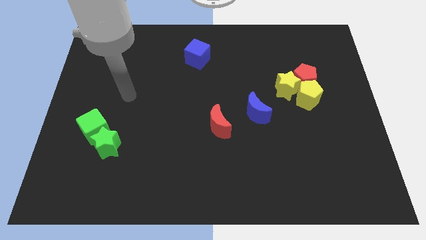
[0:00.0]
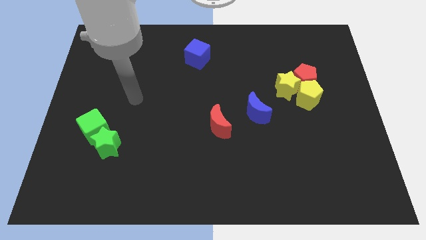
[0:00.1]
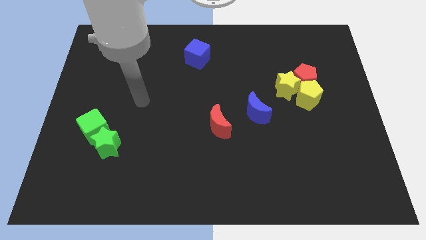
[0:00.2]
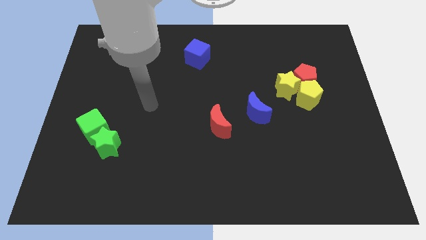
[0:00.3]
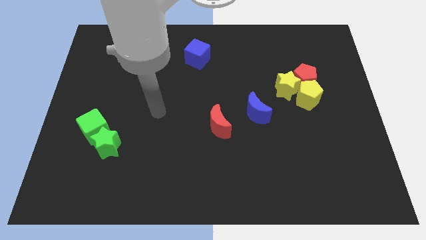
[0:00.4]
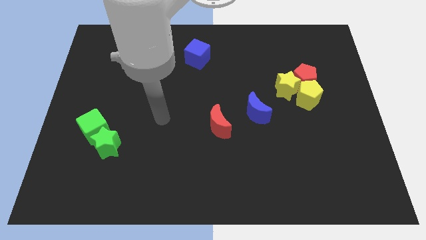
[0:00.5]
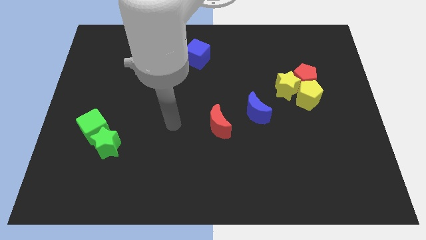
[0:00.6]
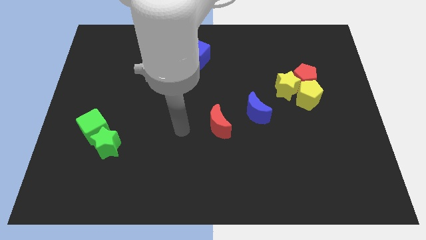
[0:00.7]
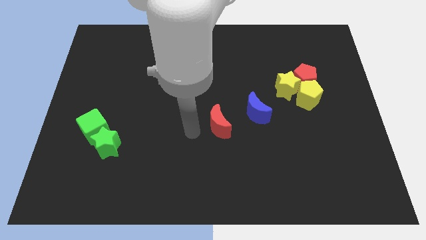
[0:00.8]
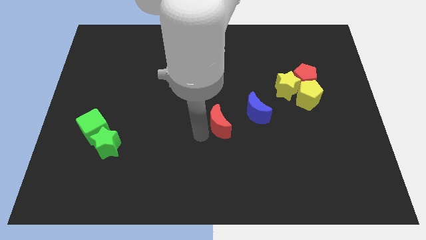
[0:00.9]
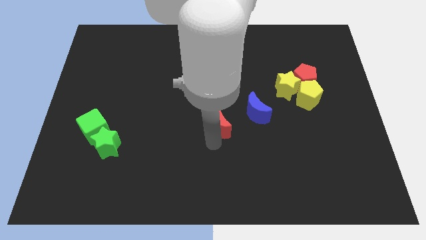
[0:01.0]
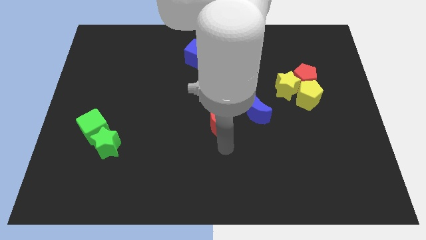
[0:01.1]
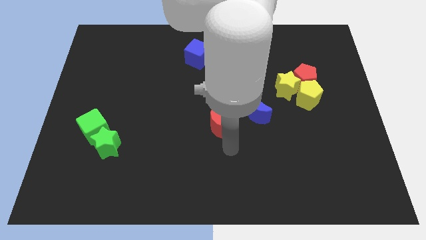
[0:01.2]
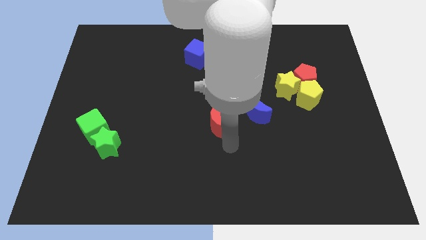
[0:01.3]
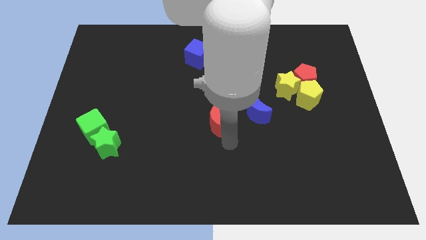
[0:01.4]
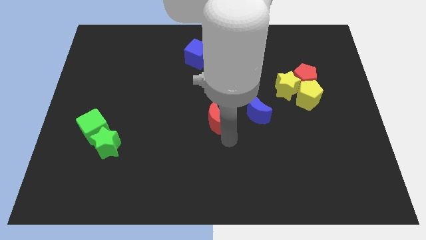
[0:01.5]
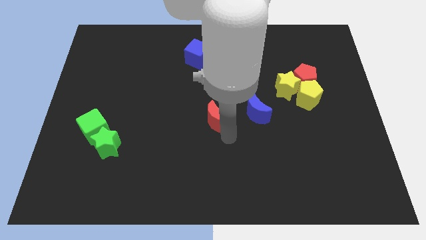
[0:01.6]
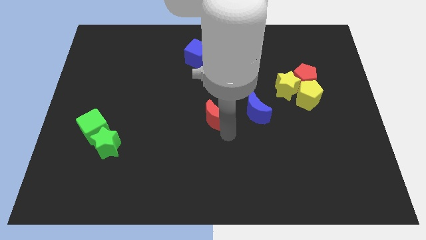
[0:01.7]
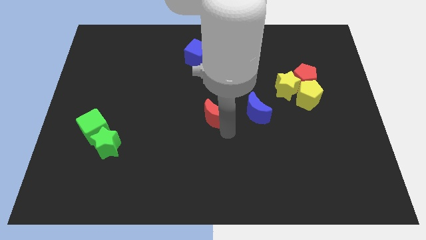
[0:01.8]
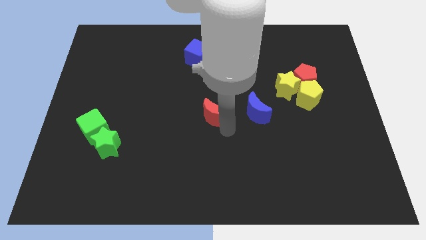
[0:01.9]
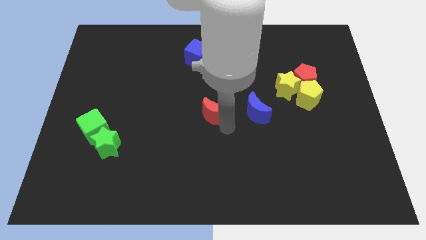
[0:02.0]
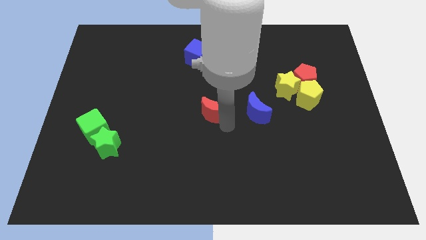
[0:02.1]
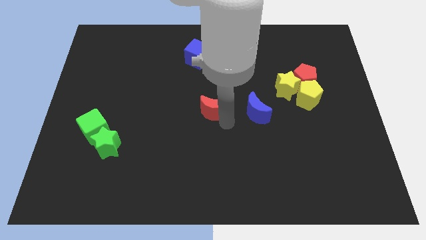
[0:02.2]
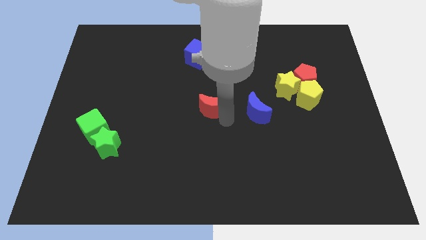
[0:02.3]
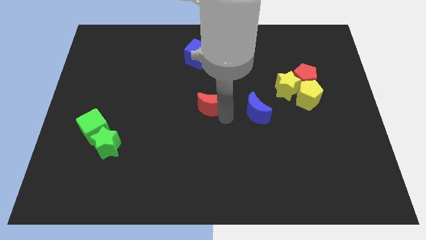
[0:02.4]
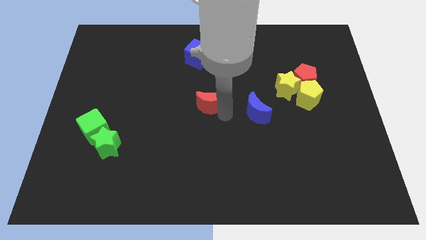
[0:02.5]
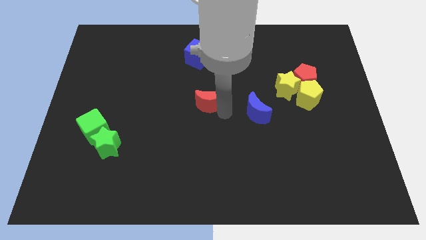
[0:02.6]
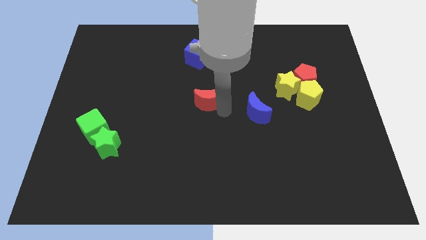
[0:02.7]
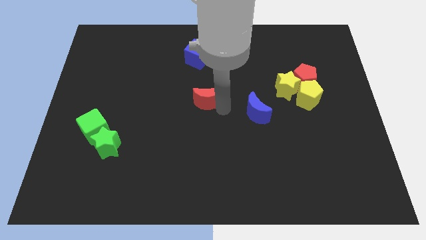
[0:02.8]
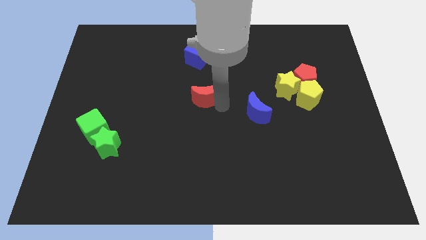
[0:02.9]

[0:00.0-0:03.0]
slightly slide the red moon upwards and then to the left

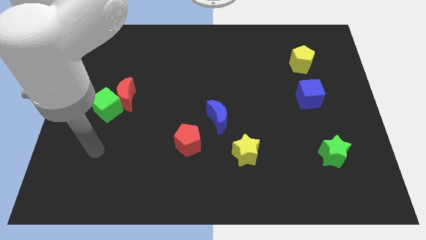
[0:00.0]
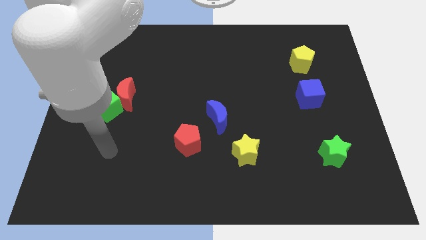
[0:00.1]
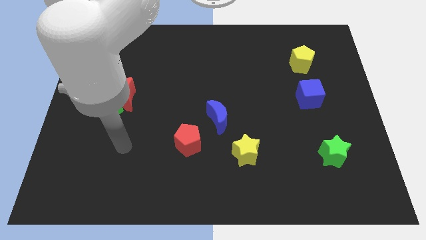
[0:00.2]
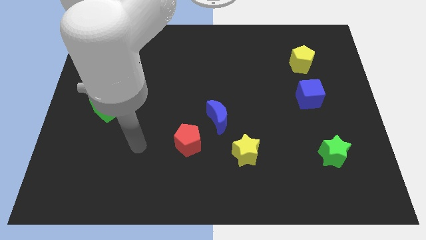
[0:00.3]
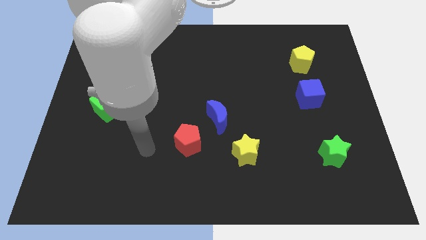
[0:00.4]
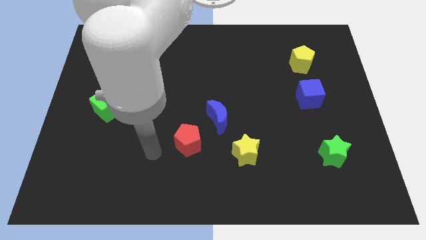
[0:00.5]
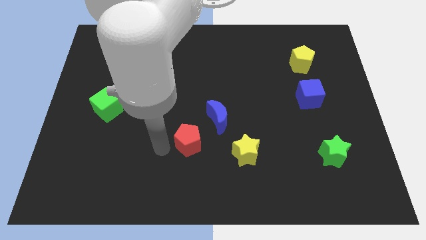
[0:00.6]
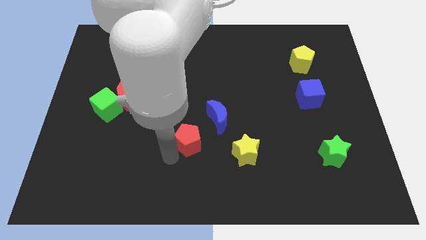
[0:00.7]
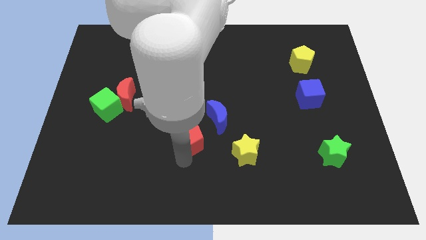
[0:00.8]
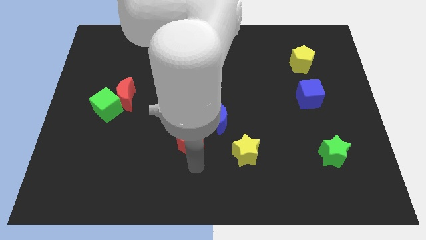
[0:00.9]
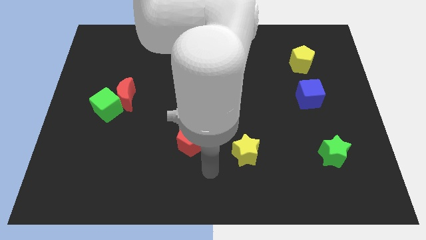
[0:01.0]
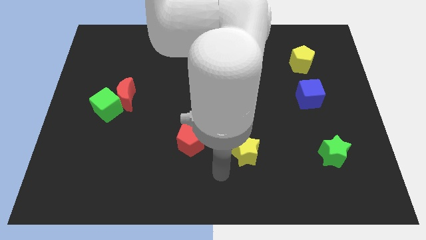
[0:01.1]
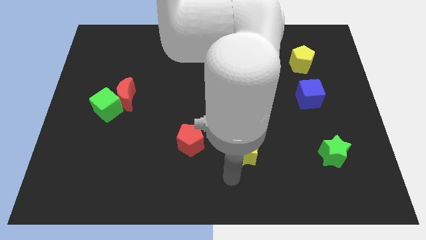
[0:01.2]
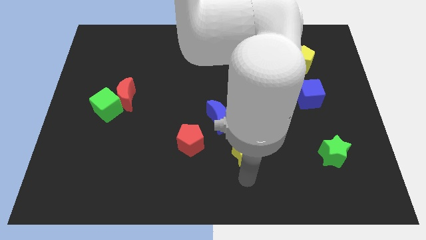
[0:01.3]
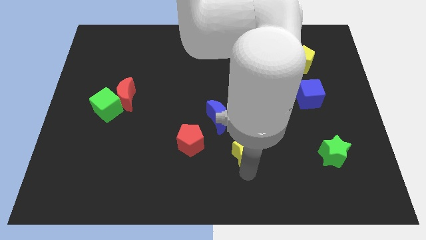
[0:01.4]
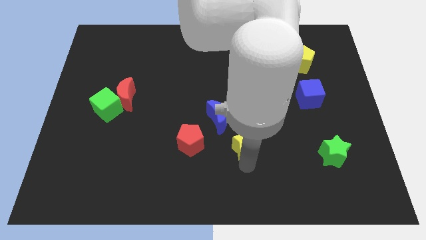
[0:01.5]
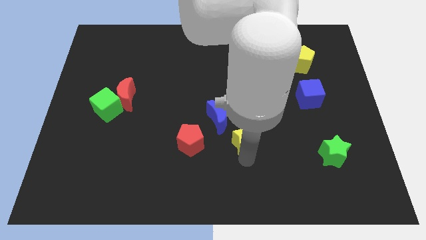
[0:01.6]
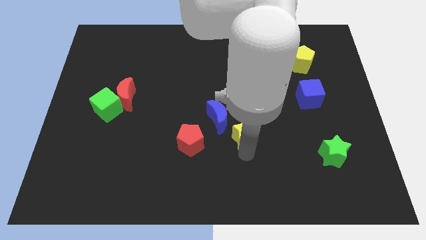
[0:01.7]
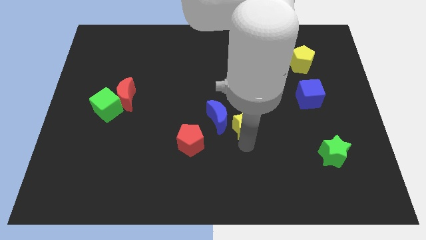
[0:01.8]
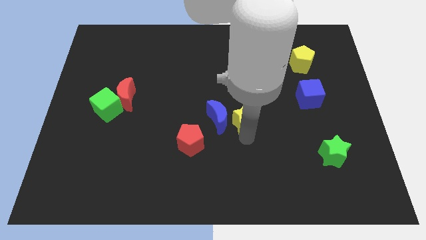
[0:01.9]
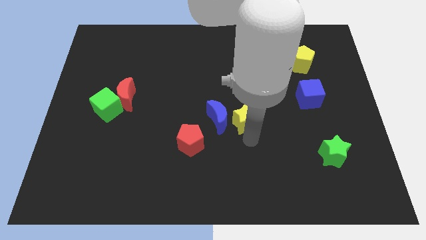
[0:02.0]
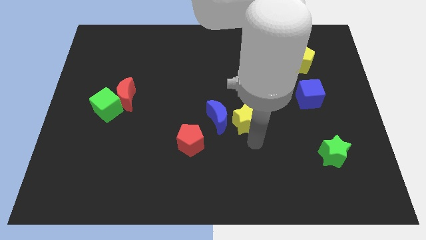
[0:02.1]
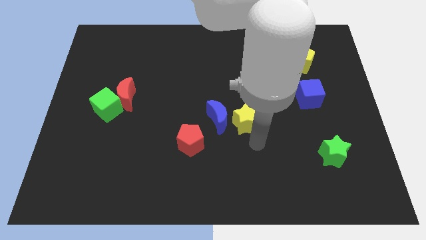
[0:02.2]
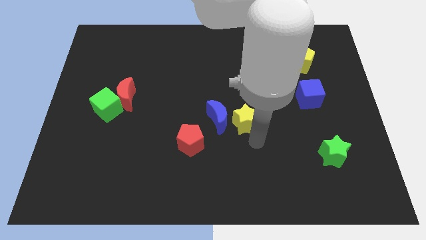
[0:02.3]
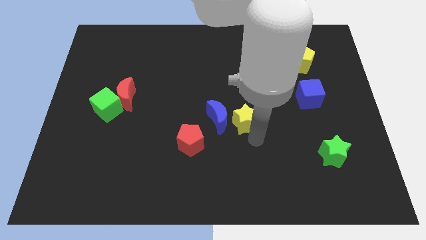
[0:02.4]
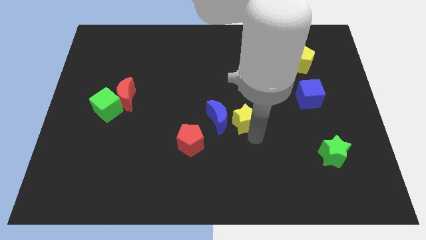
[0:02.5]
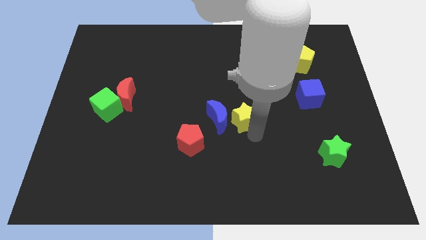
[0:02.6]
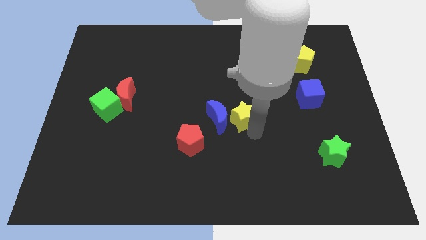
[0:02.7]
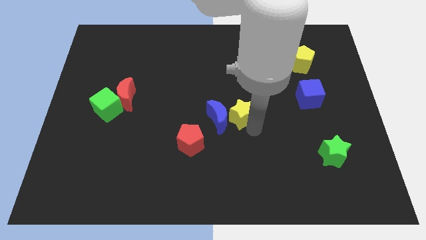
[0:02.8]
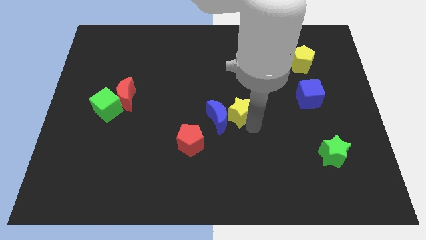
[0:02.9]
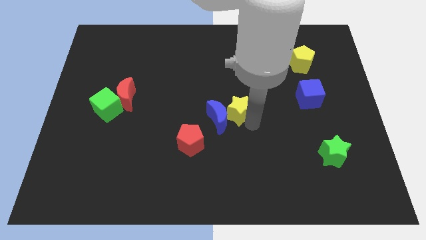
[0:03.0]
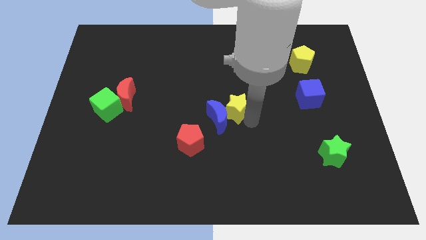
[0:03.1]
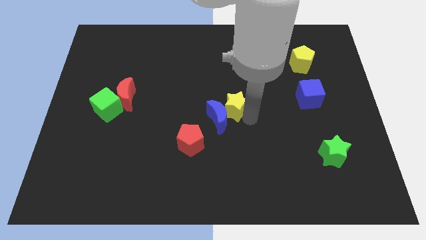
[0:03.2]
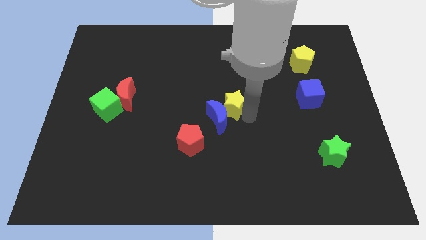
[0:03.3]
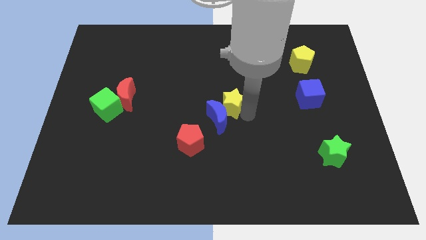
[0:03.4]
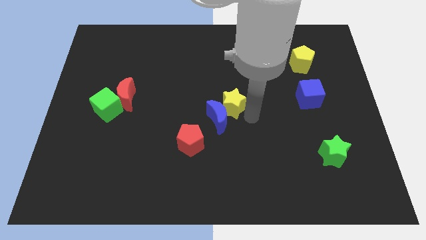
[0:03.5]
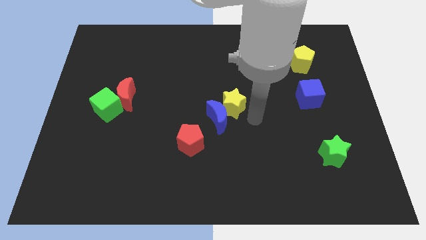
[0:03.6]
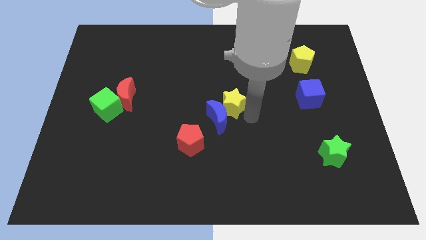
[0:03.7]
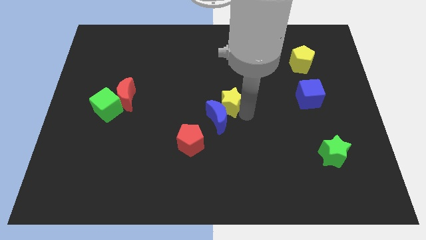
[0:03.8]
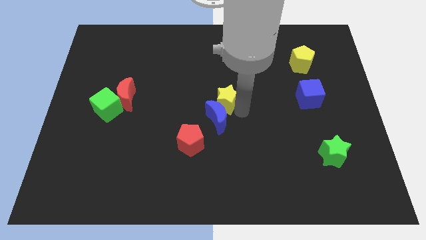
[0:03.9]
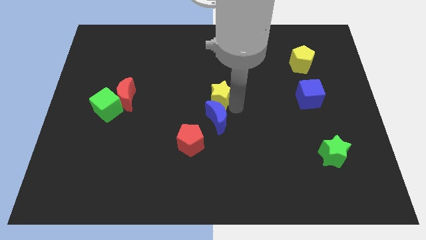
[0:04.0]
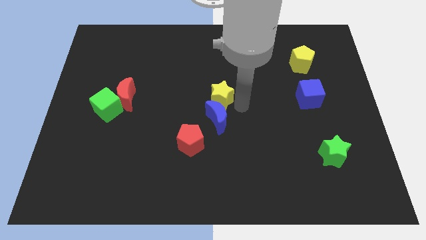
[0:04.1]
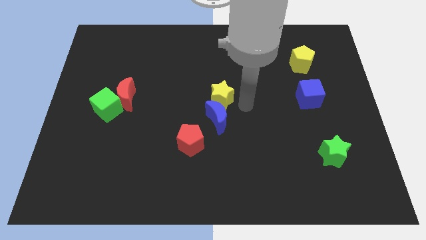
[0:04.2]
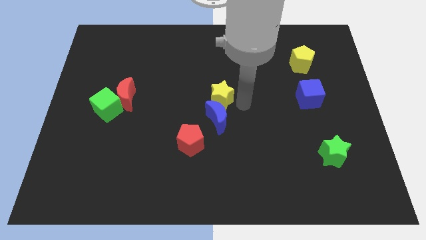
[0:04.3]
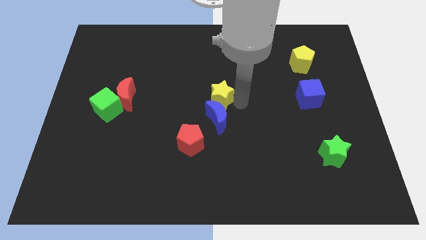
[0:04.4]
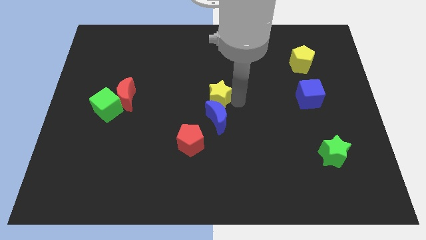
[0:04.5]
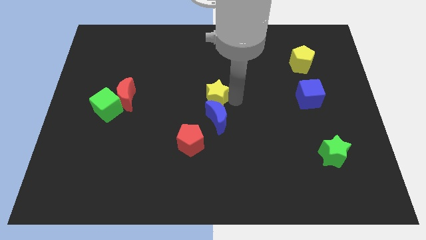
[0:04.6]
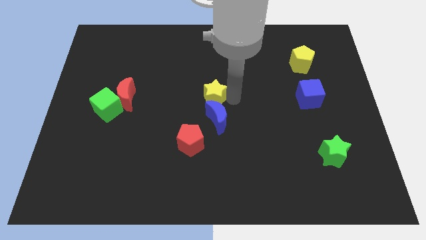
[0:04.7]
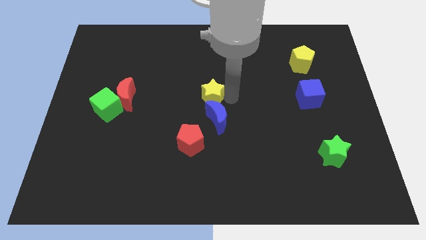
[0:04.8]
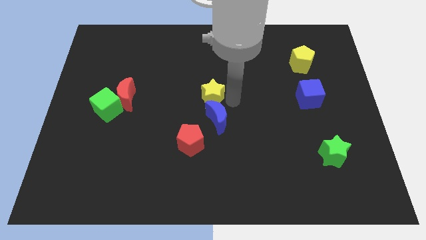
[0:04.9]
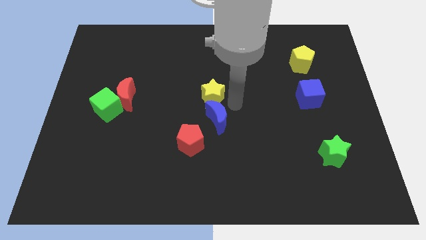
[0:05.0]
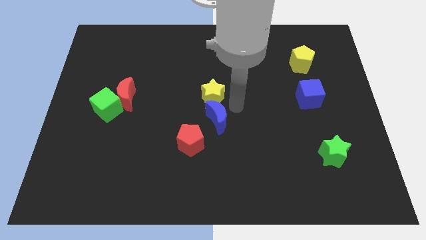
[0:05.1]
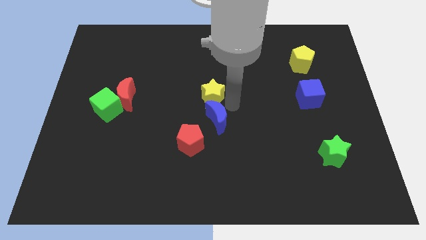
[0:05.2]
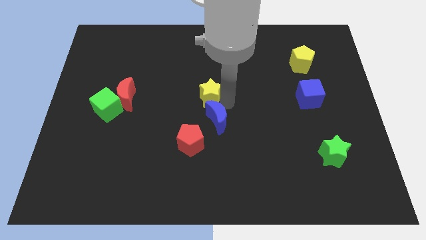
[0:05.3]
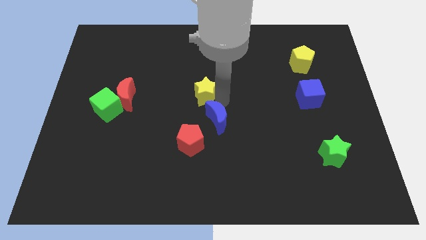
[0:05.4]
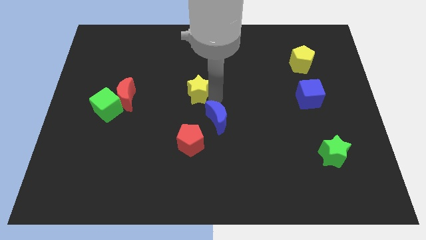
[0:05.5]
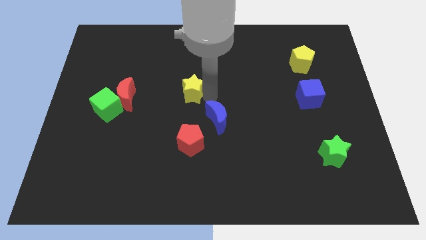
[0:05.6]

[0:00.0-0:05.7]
move the yellow star up and left diagonally
